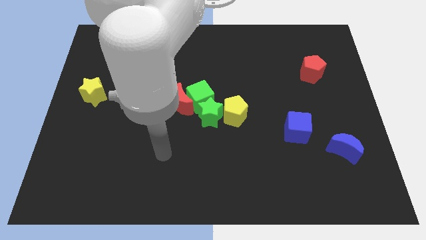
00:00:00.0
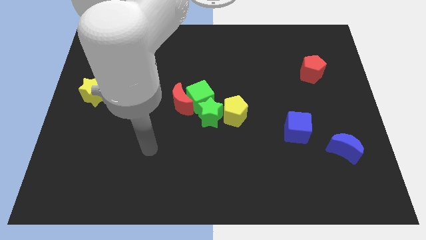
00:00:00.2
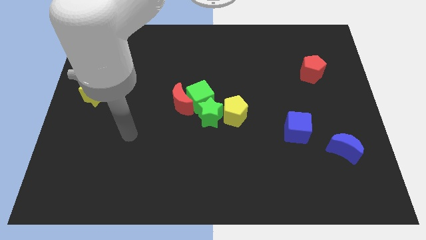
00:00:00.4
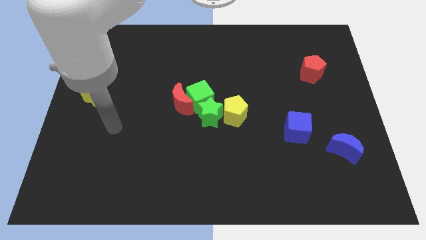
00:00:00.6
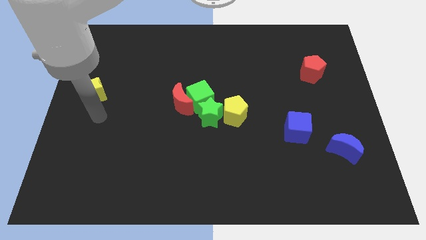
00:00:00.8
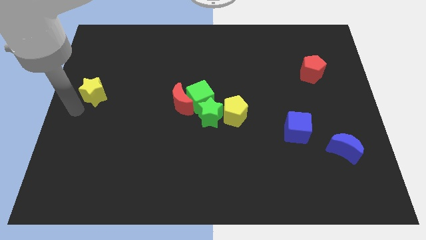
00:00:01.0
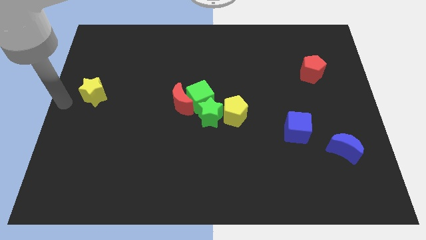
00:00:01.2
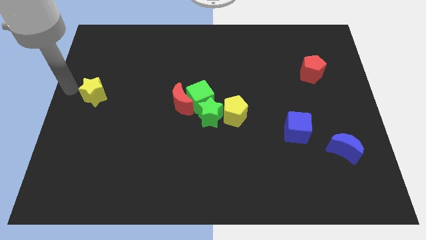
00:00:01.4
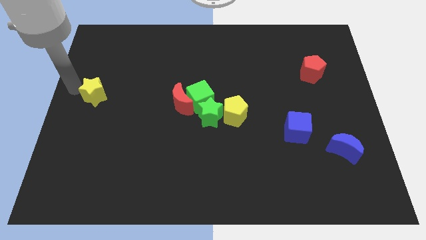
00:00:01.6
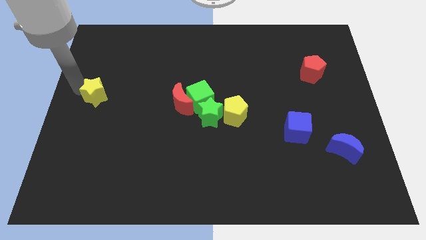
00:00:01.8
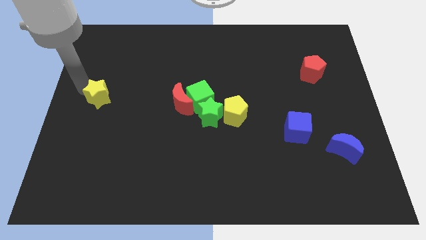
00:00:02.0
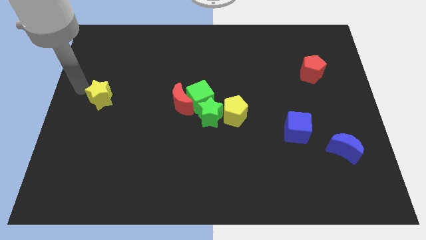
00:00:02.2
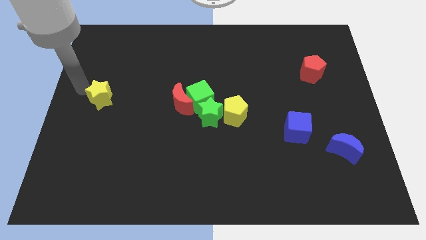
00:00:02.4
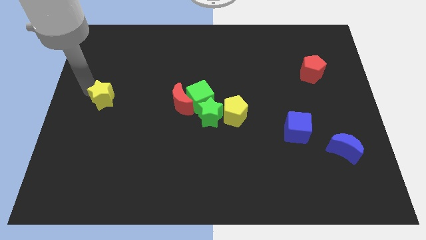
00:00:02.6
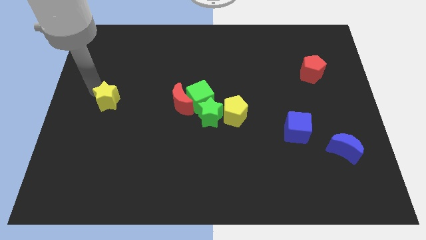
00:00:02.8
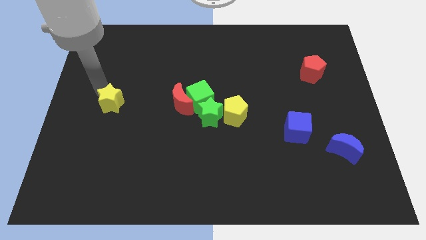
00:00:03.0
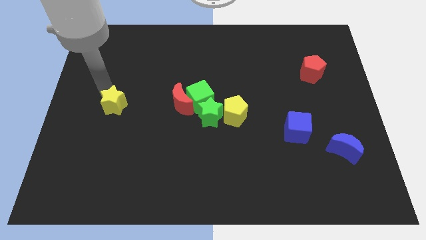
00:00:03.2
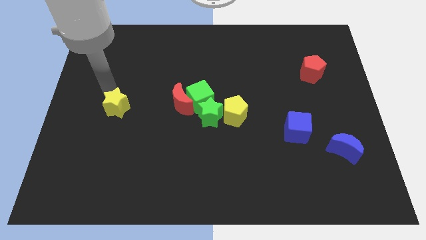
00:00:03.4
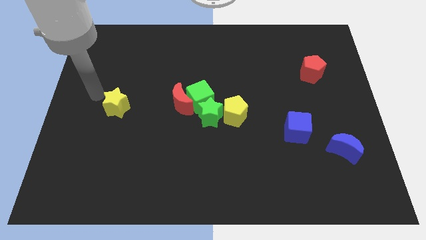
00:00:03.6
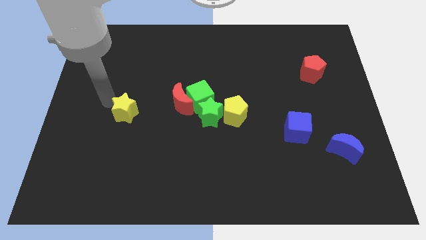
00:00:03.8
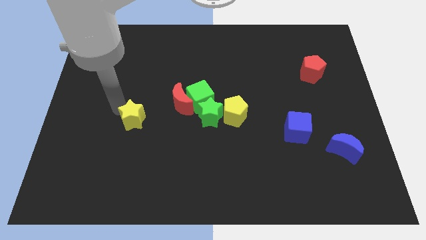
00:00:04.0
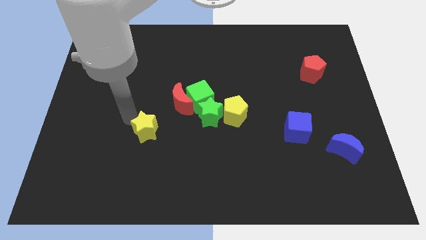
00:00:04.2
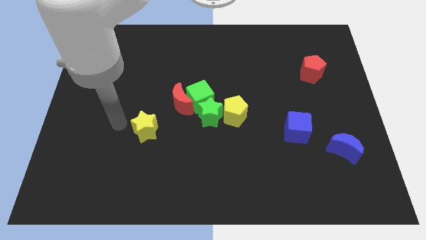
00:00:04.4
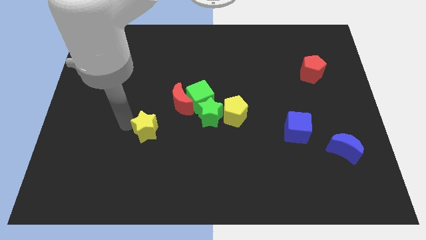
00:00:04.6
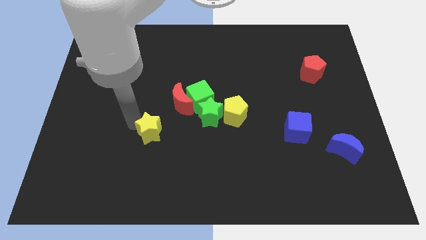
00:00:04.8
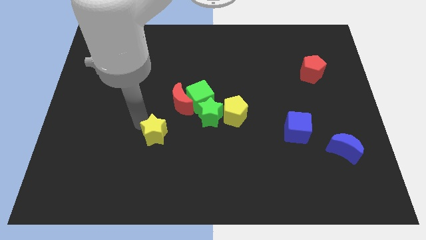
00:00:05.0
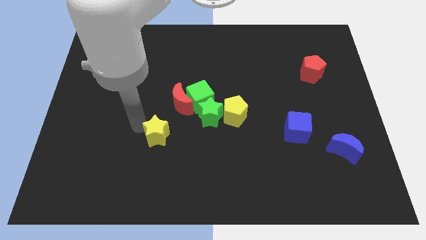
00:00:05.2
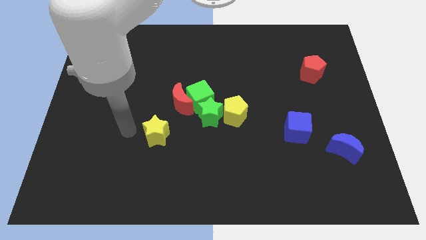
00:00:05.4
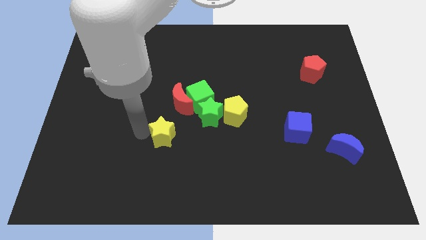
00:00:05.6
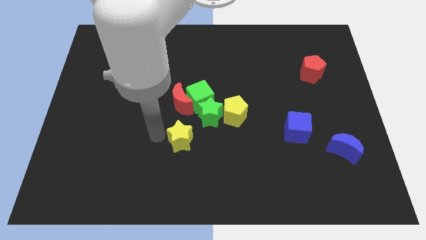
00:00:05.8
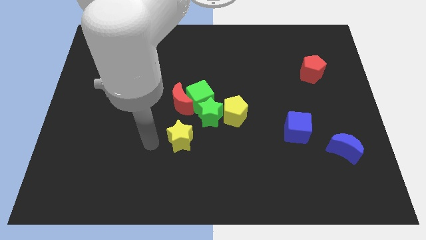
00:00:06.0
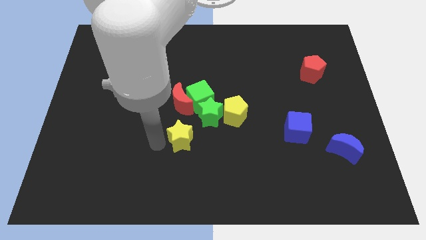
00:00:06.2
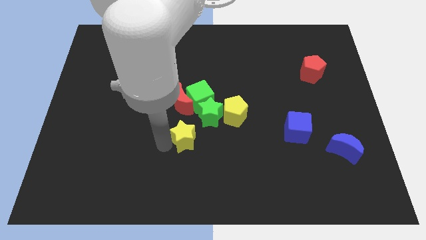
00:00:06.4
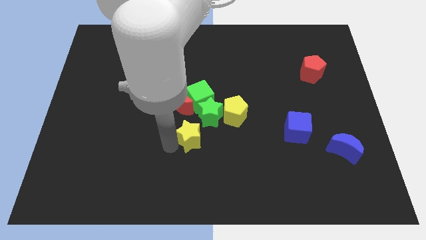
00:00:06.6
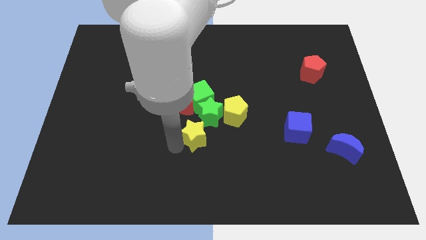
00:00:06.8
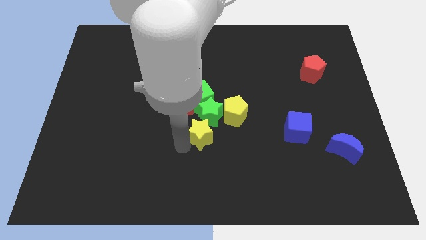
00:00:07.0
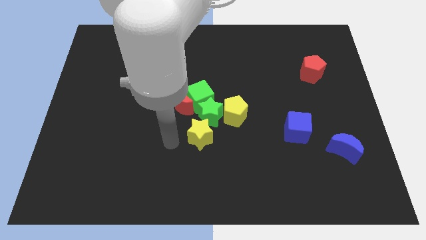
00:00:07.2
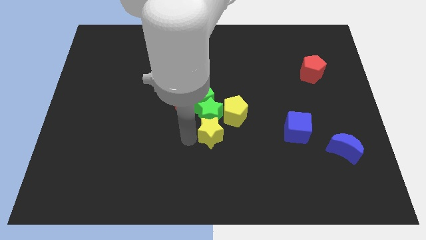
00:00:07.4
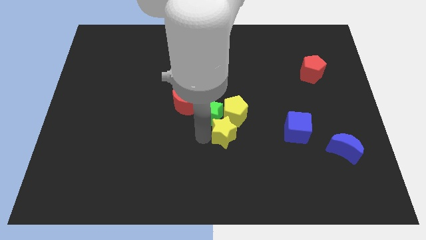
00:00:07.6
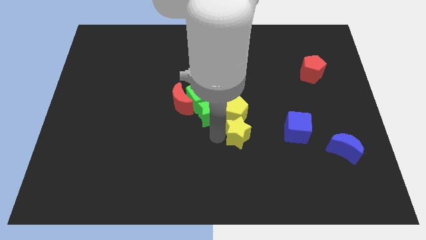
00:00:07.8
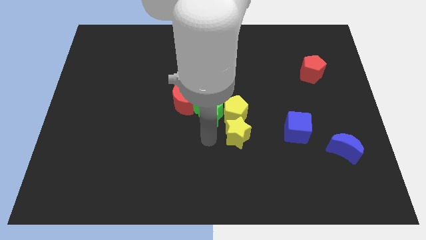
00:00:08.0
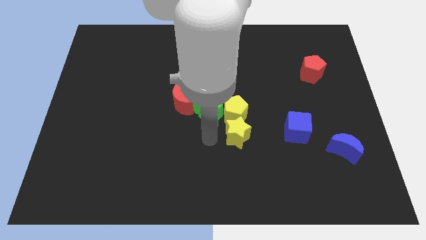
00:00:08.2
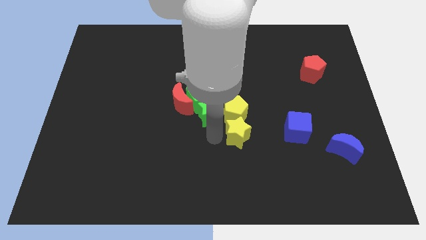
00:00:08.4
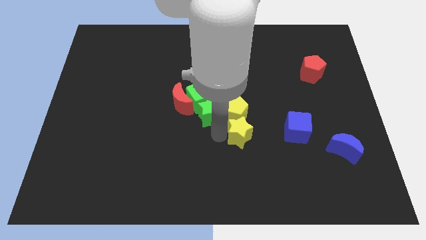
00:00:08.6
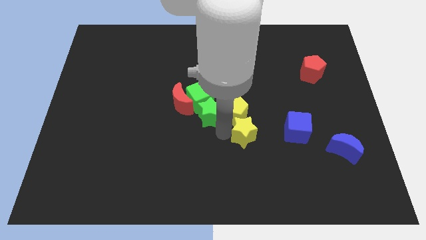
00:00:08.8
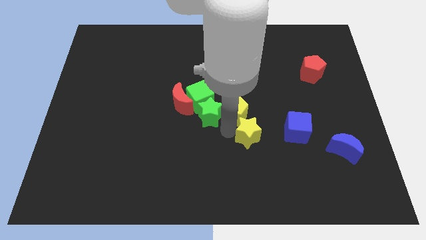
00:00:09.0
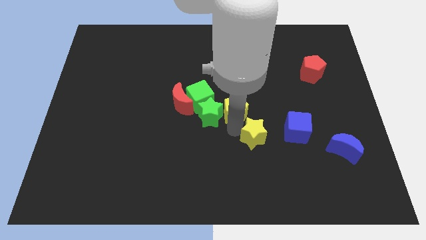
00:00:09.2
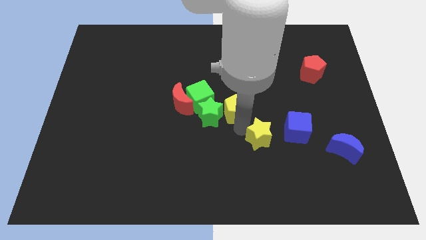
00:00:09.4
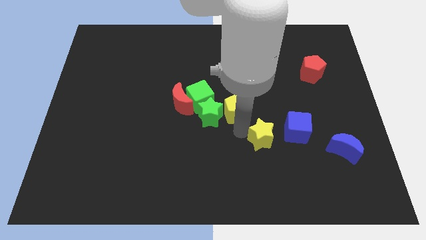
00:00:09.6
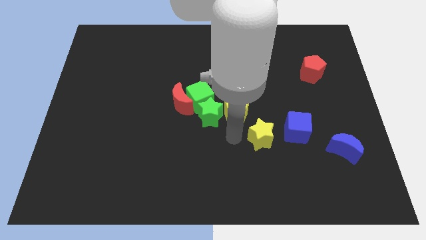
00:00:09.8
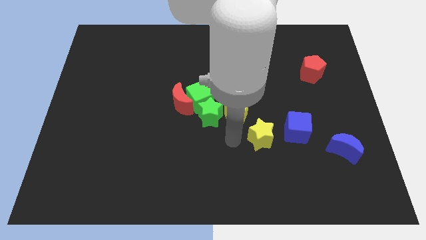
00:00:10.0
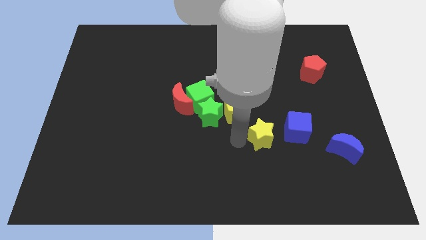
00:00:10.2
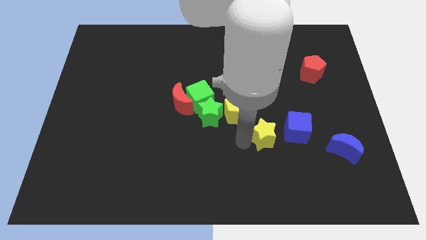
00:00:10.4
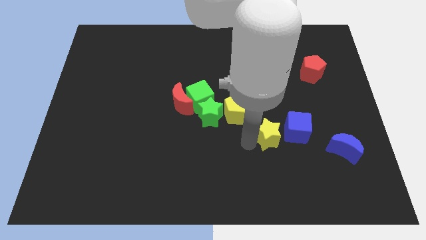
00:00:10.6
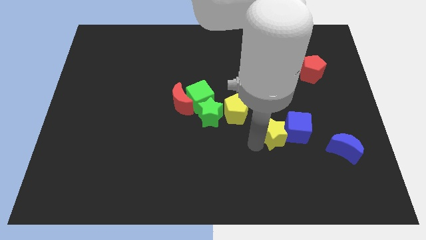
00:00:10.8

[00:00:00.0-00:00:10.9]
put the yellow star towards the blue cube

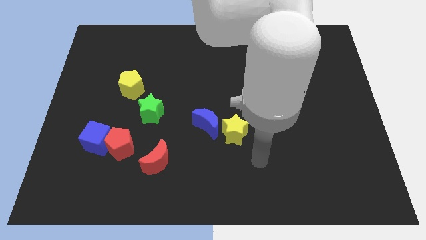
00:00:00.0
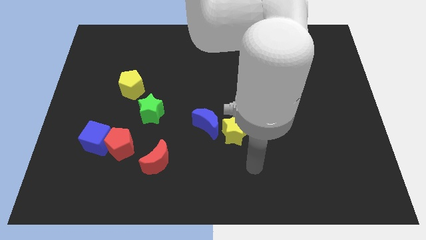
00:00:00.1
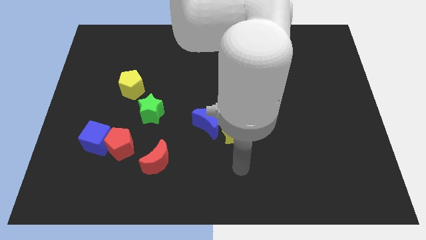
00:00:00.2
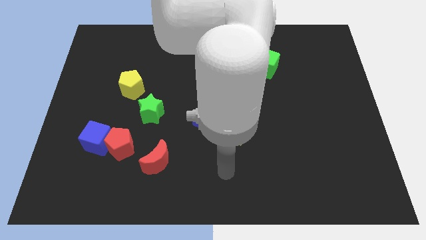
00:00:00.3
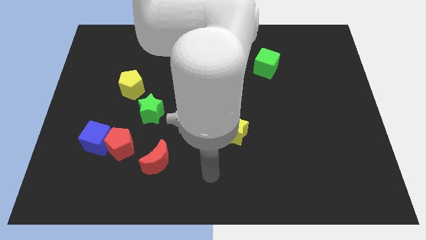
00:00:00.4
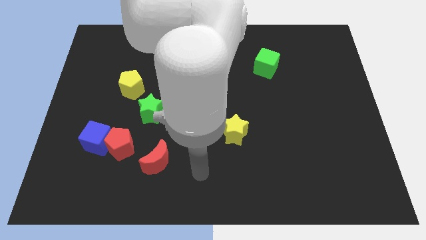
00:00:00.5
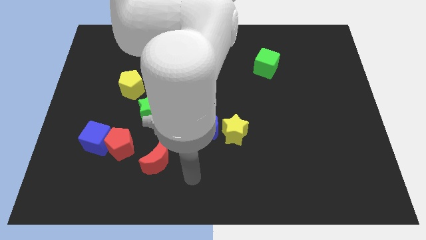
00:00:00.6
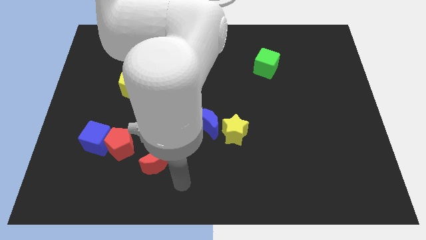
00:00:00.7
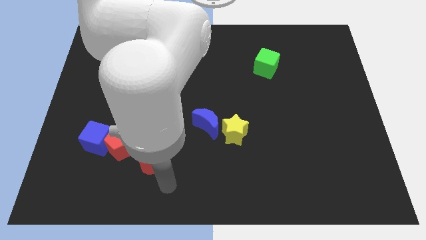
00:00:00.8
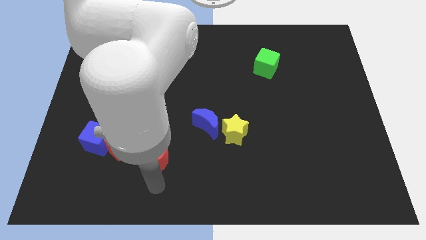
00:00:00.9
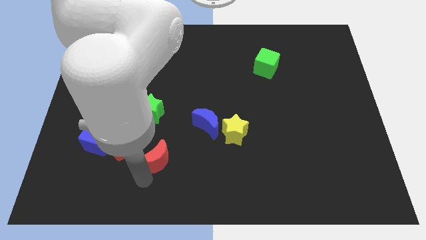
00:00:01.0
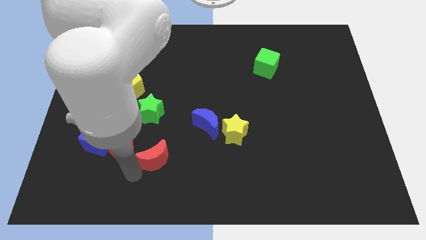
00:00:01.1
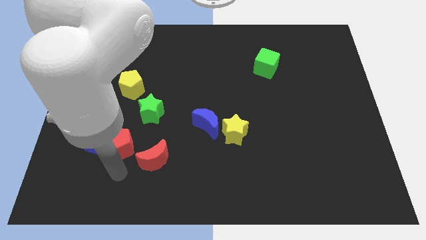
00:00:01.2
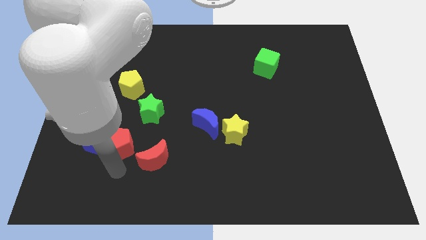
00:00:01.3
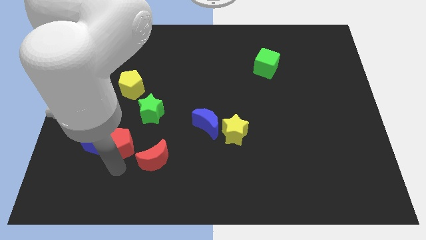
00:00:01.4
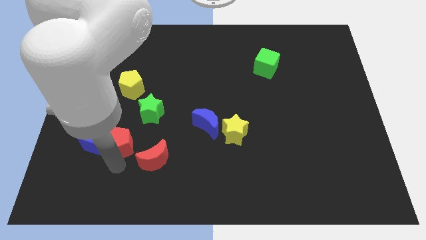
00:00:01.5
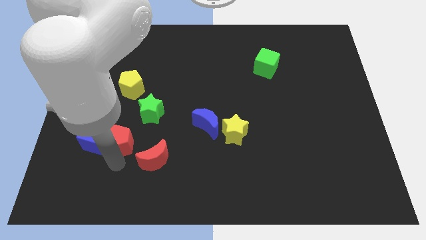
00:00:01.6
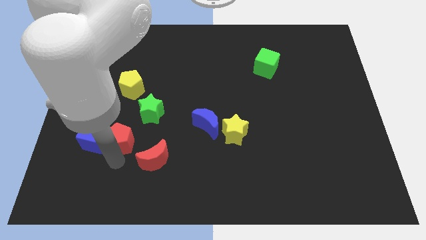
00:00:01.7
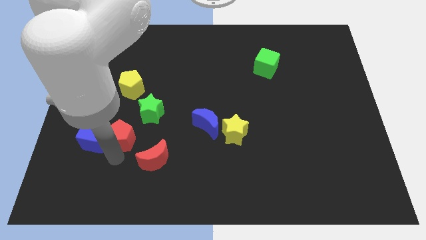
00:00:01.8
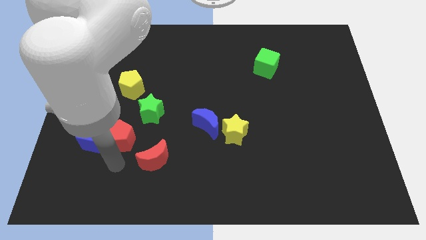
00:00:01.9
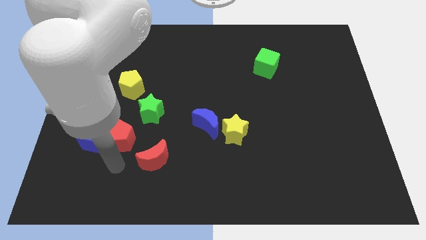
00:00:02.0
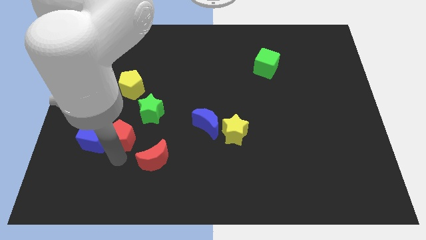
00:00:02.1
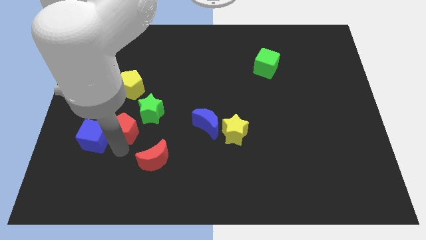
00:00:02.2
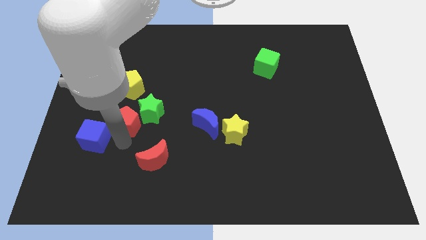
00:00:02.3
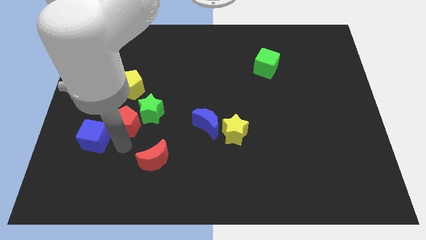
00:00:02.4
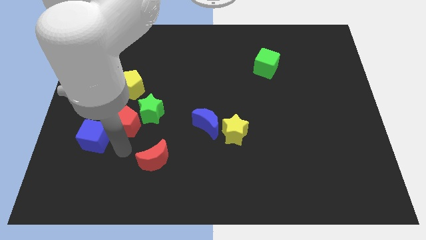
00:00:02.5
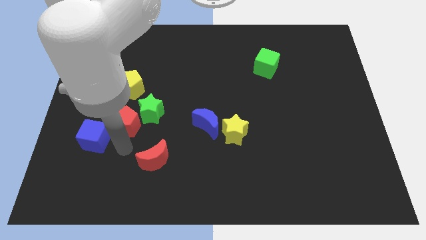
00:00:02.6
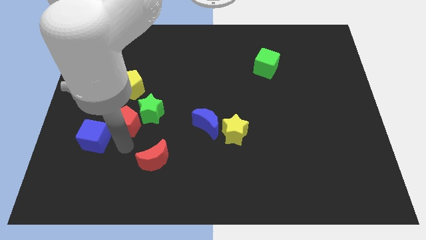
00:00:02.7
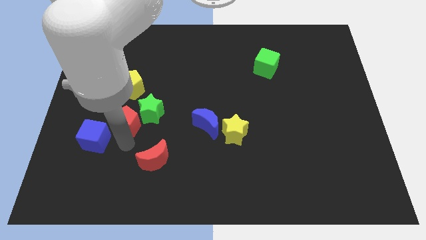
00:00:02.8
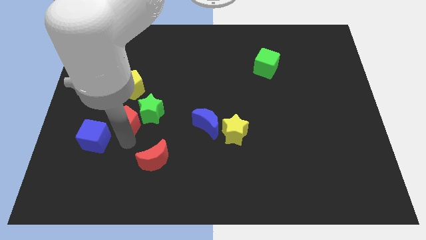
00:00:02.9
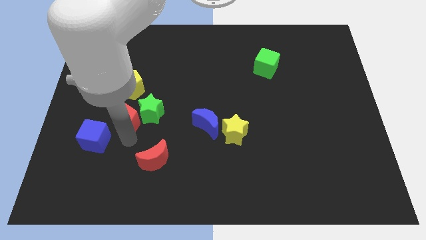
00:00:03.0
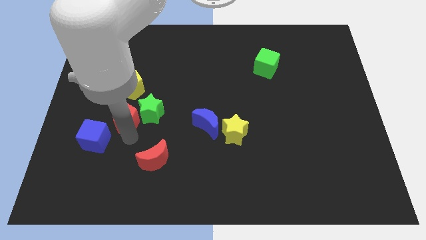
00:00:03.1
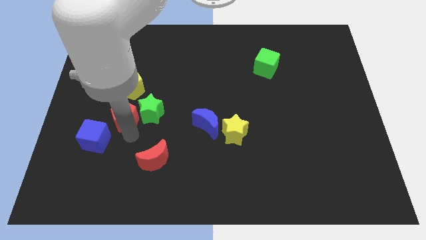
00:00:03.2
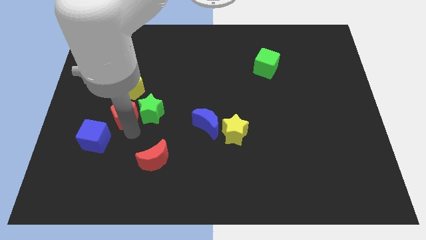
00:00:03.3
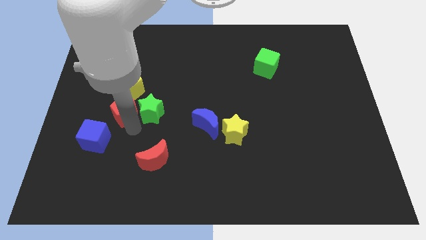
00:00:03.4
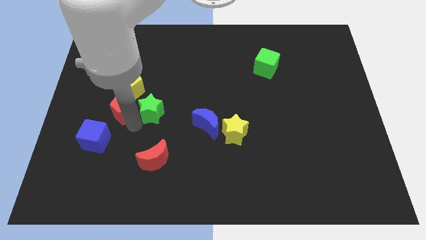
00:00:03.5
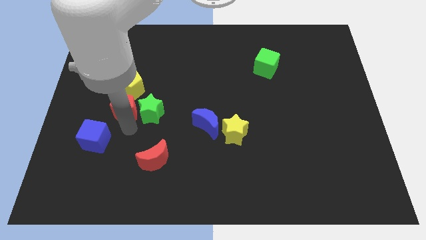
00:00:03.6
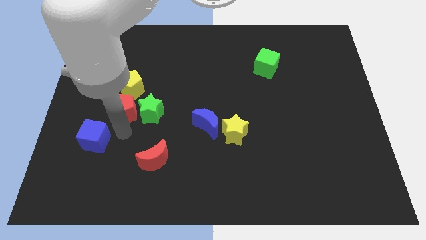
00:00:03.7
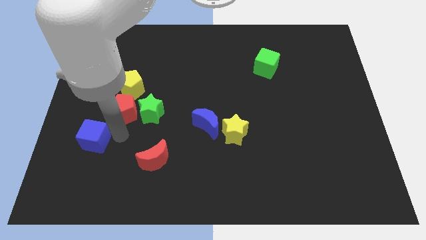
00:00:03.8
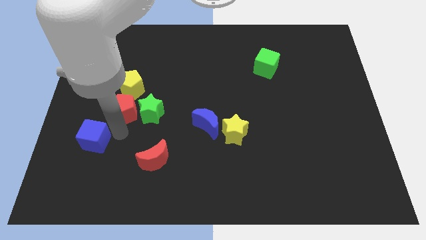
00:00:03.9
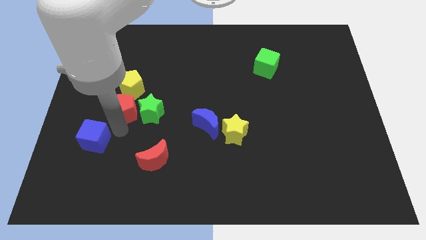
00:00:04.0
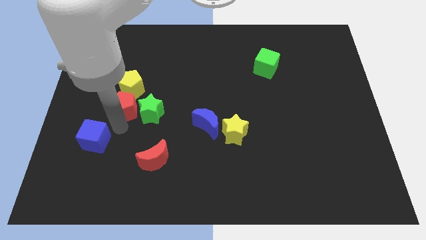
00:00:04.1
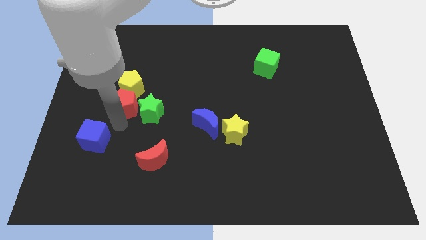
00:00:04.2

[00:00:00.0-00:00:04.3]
push the red pentagon towards the yellow pentagon
